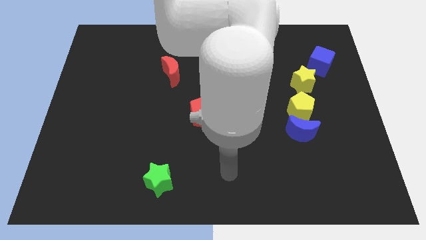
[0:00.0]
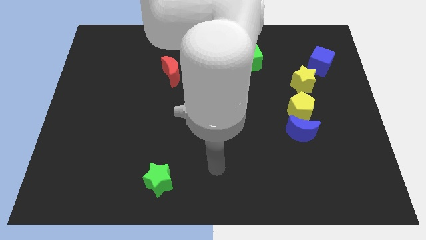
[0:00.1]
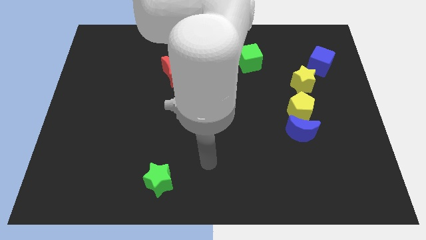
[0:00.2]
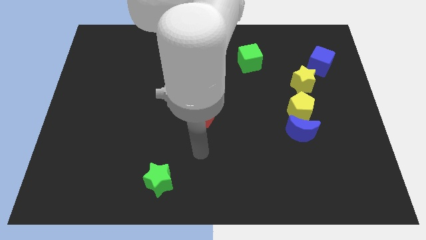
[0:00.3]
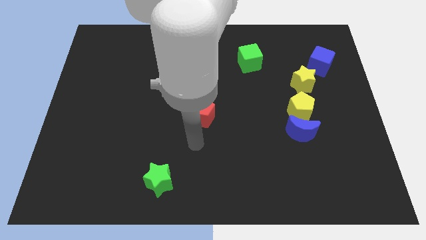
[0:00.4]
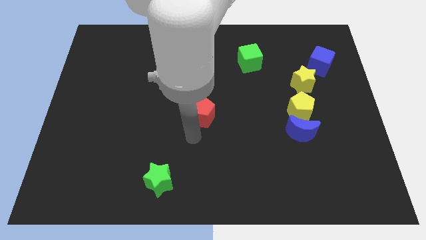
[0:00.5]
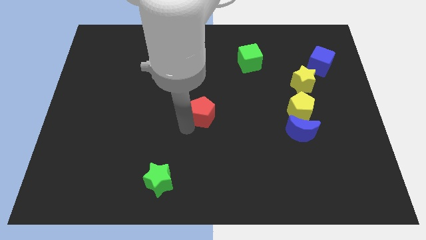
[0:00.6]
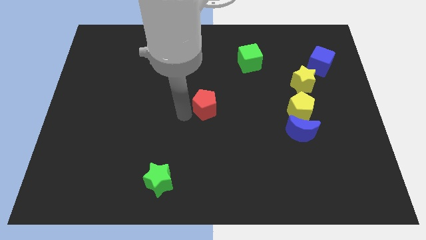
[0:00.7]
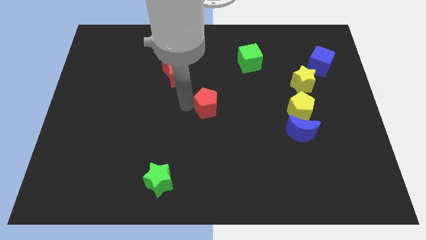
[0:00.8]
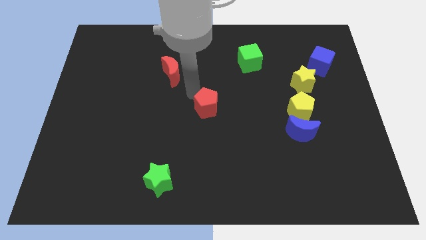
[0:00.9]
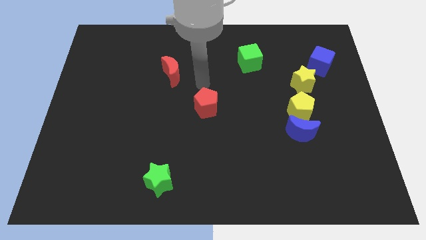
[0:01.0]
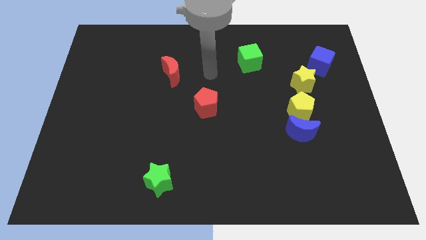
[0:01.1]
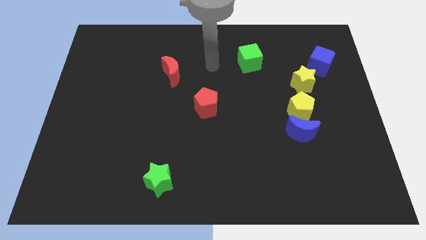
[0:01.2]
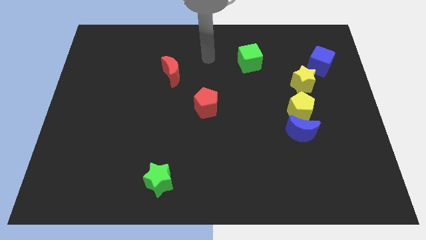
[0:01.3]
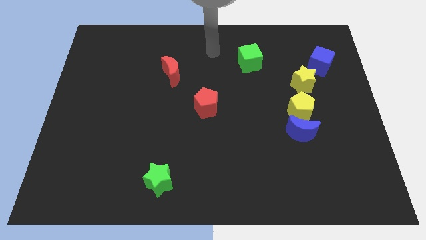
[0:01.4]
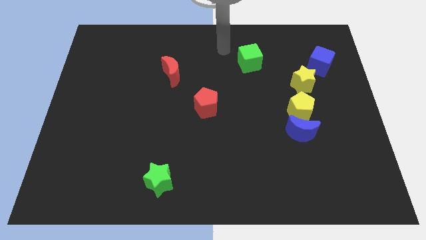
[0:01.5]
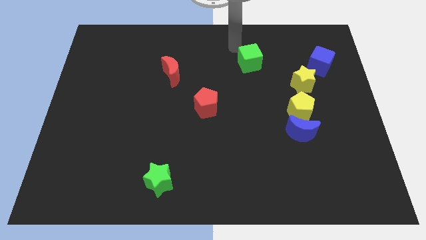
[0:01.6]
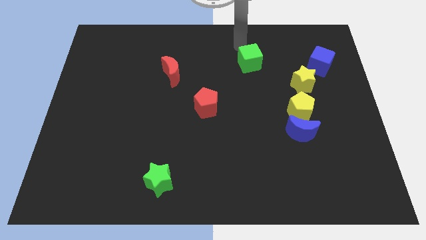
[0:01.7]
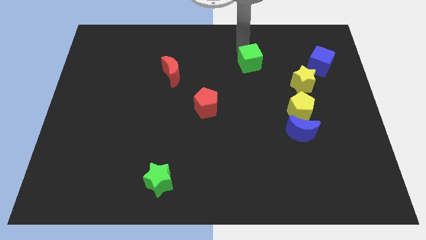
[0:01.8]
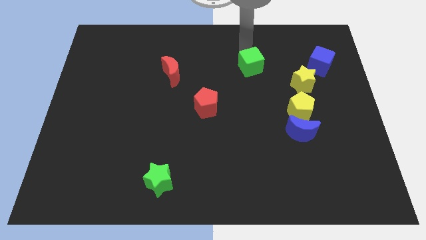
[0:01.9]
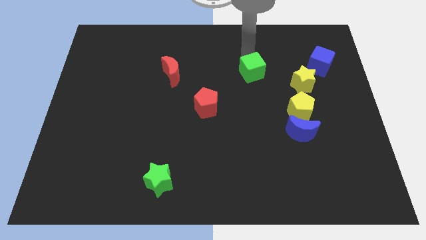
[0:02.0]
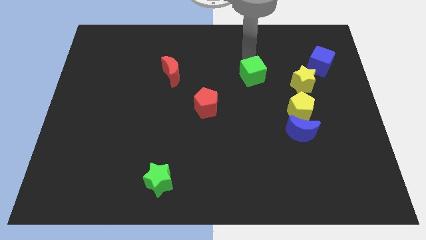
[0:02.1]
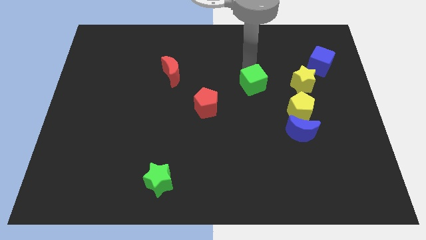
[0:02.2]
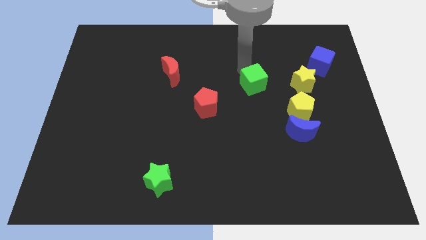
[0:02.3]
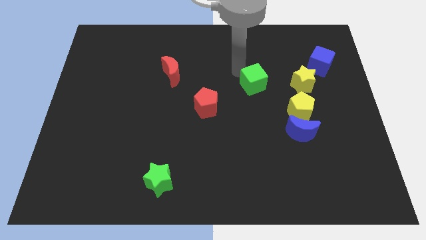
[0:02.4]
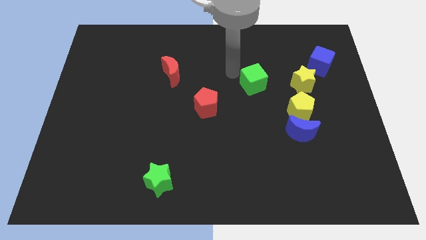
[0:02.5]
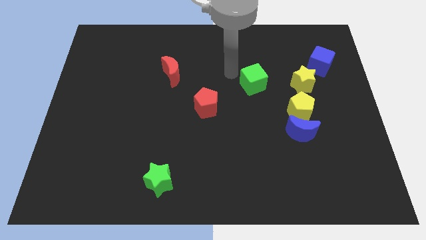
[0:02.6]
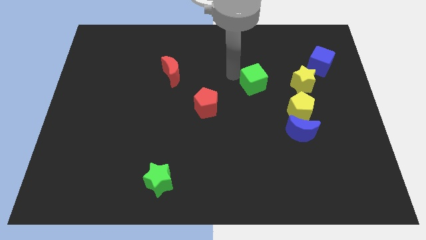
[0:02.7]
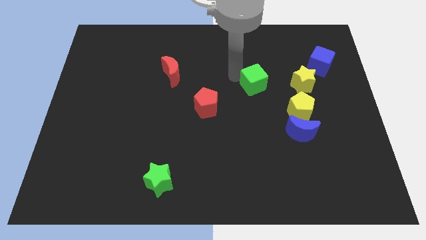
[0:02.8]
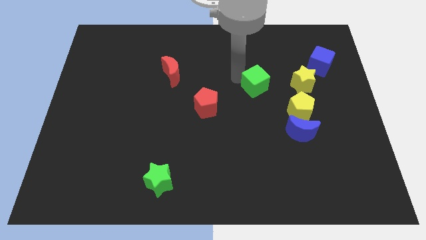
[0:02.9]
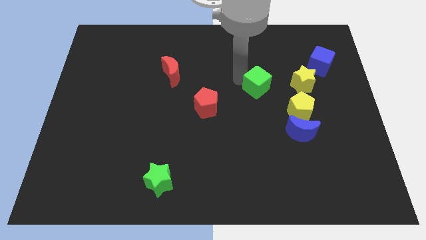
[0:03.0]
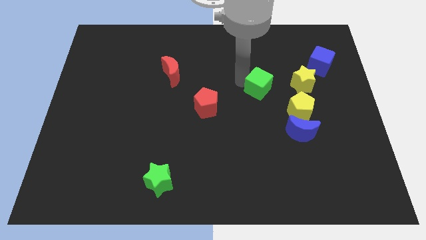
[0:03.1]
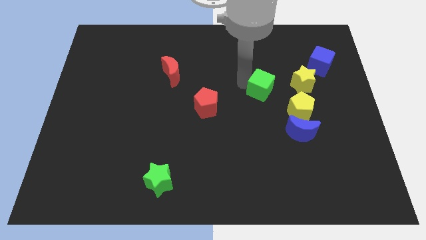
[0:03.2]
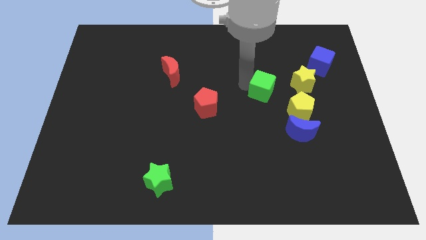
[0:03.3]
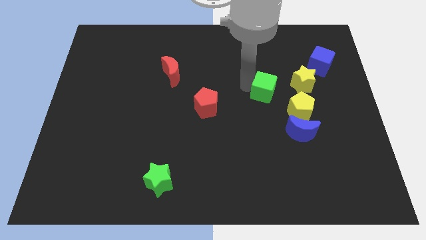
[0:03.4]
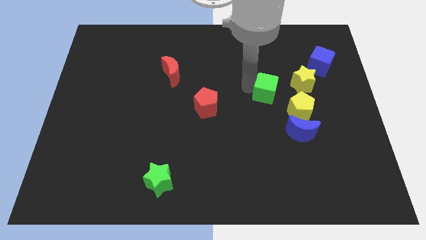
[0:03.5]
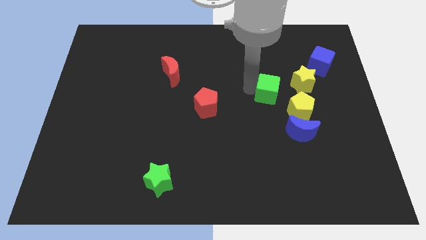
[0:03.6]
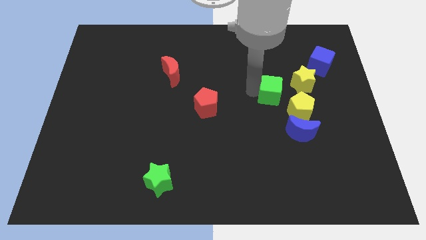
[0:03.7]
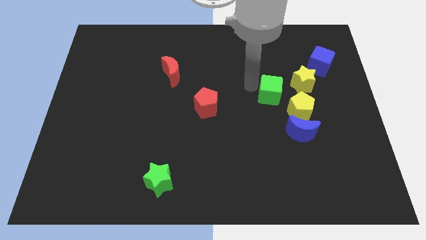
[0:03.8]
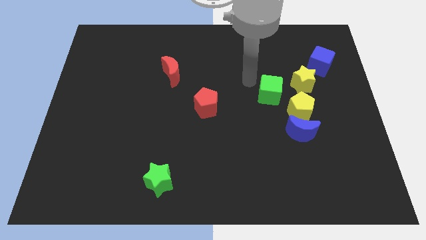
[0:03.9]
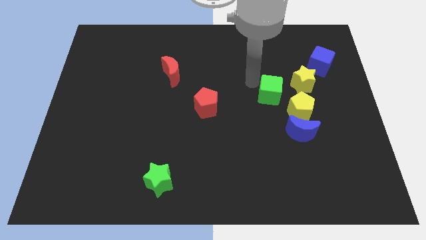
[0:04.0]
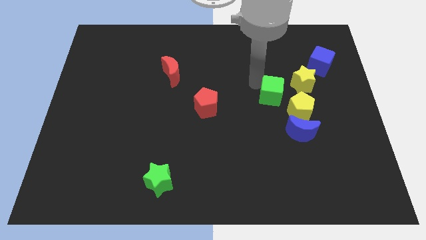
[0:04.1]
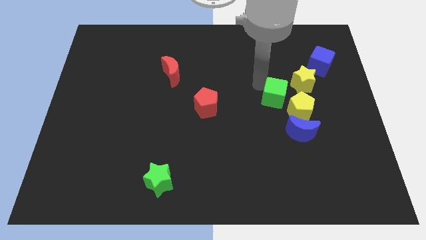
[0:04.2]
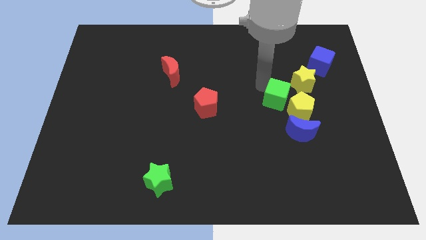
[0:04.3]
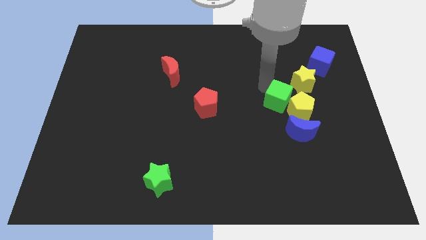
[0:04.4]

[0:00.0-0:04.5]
slide the green cube close to the yellow pentagon

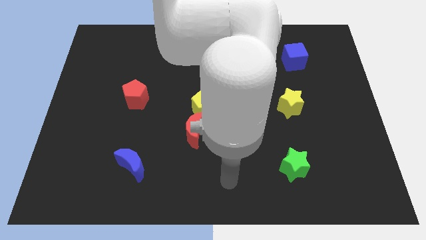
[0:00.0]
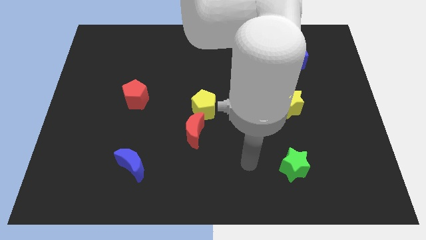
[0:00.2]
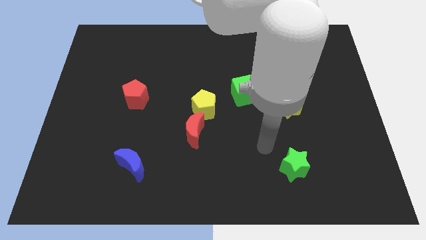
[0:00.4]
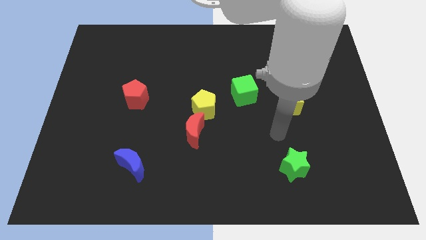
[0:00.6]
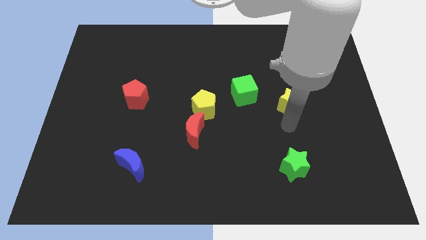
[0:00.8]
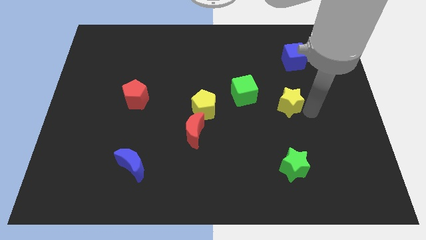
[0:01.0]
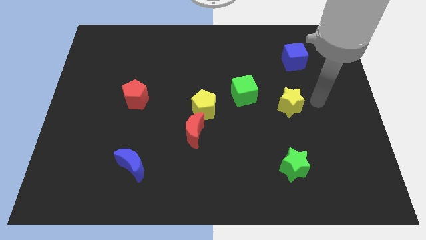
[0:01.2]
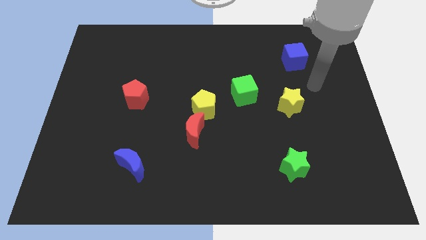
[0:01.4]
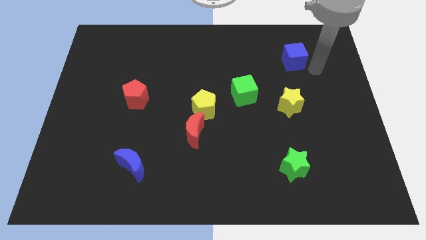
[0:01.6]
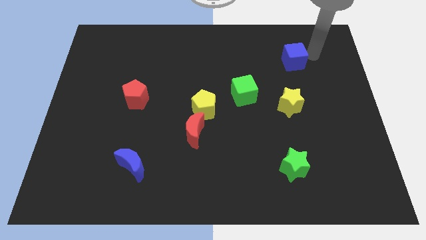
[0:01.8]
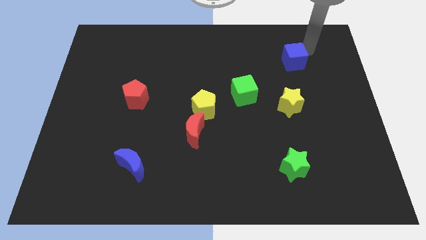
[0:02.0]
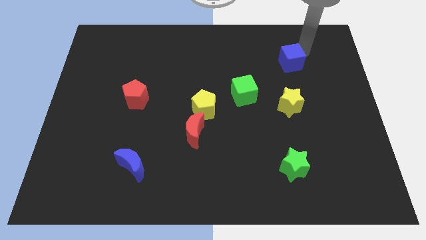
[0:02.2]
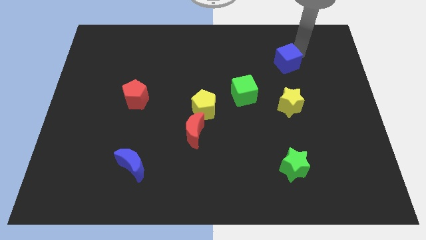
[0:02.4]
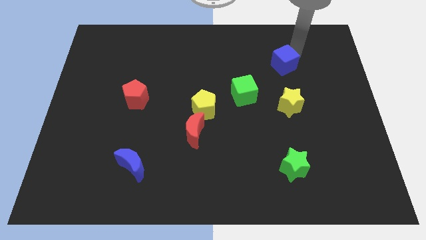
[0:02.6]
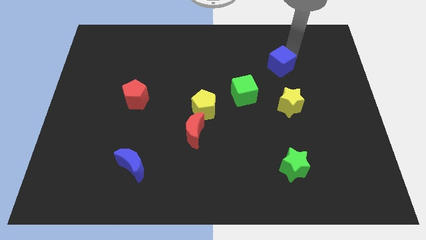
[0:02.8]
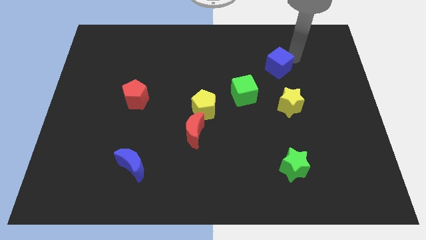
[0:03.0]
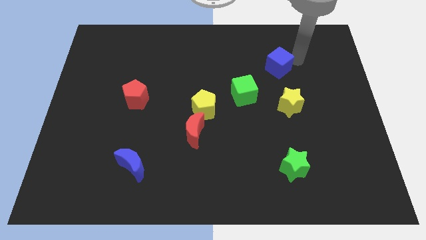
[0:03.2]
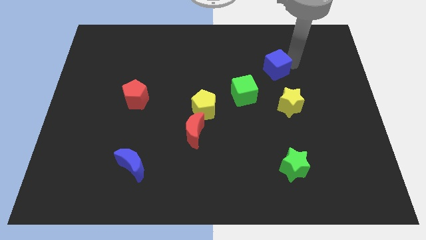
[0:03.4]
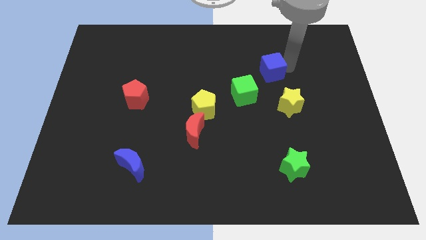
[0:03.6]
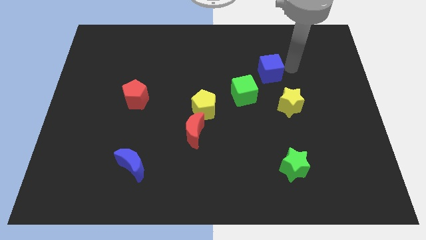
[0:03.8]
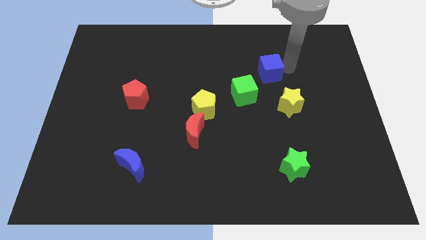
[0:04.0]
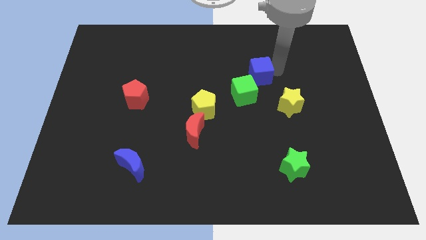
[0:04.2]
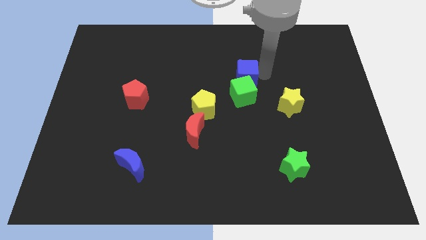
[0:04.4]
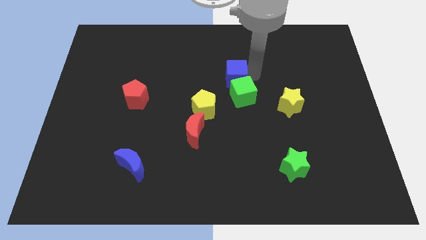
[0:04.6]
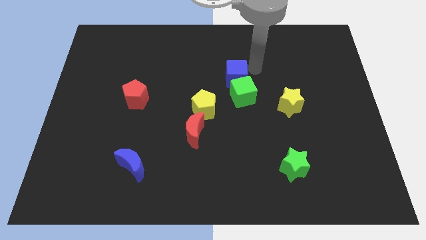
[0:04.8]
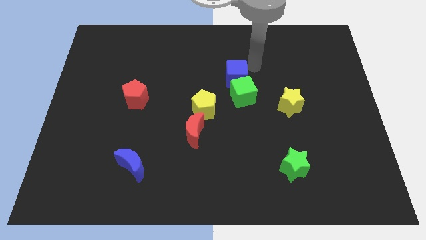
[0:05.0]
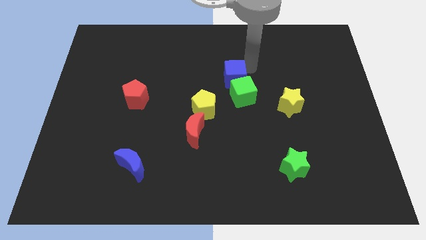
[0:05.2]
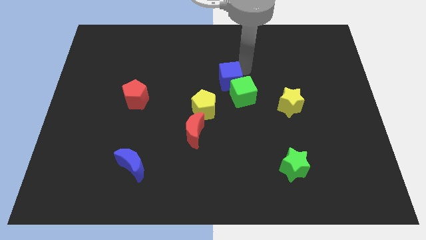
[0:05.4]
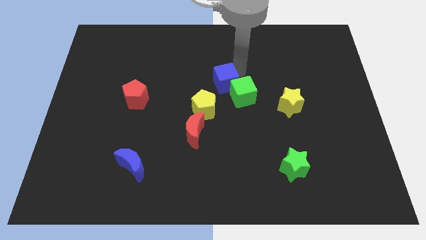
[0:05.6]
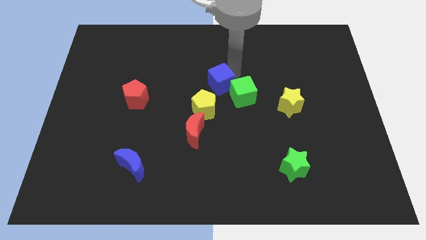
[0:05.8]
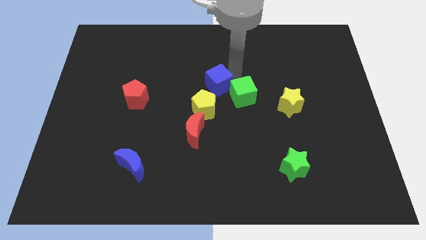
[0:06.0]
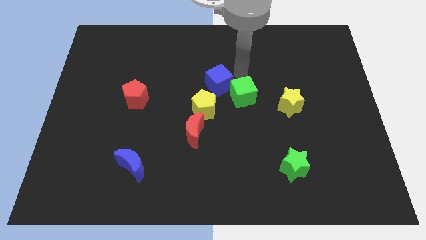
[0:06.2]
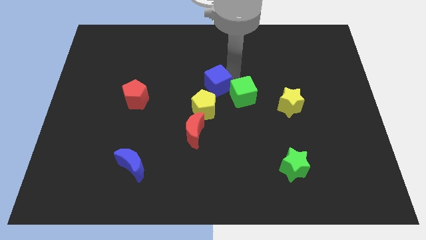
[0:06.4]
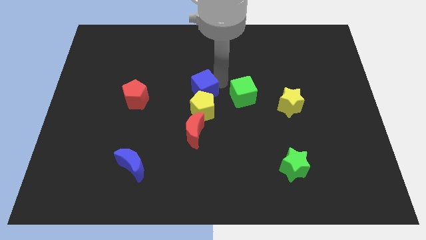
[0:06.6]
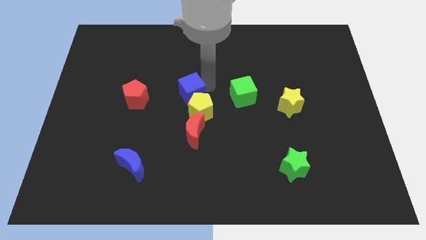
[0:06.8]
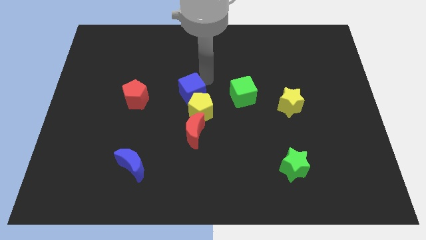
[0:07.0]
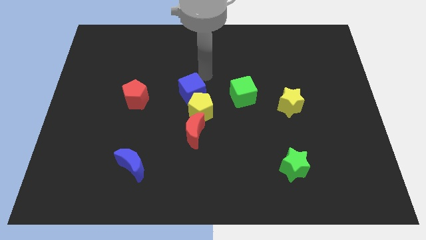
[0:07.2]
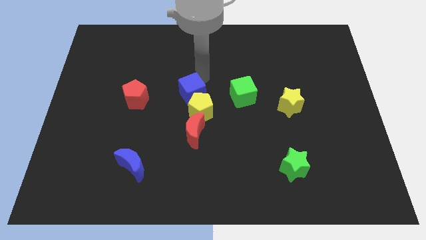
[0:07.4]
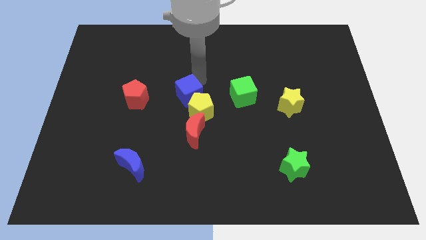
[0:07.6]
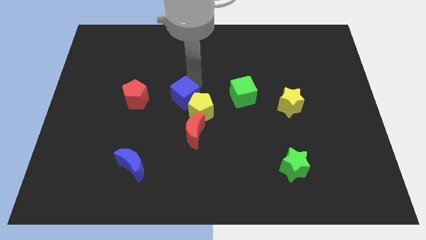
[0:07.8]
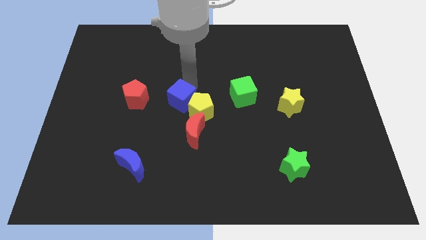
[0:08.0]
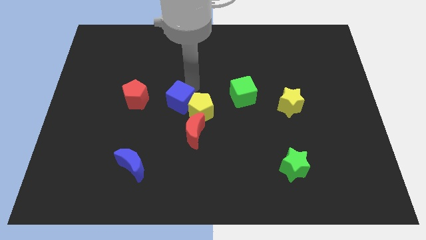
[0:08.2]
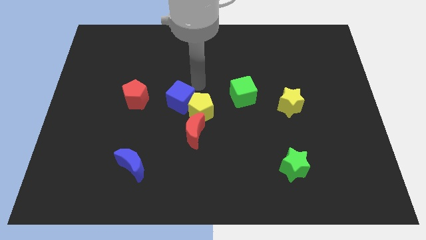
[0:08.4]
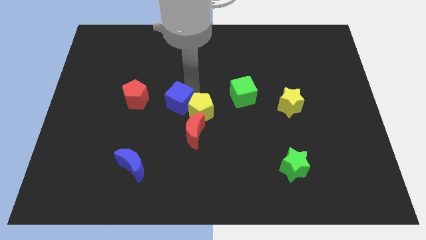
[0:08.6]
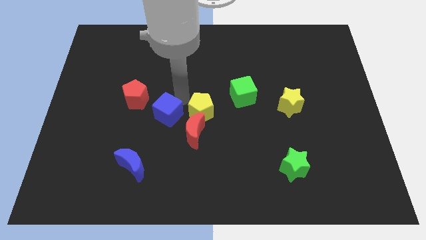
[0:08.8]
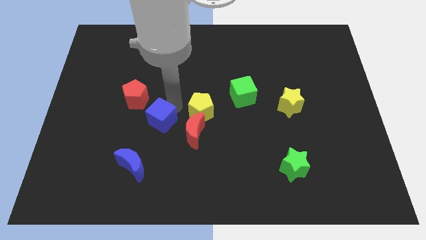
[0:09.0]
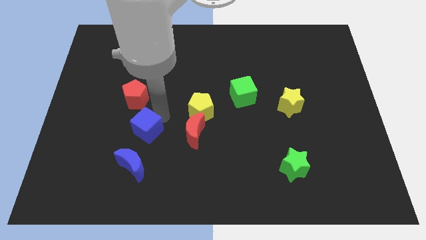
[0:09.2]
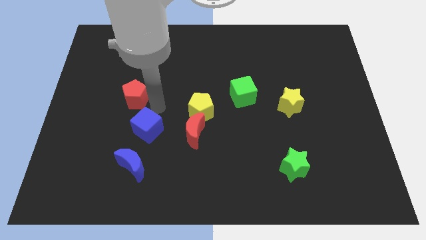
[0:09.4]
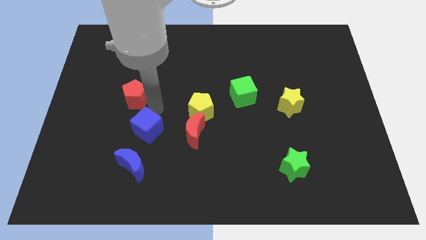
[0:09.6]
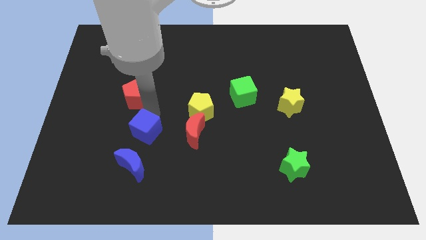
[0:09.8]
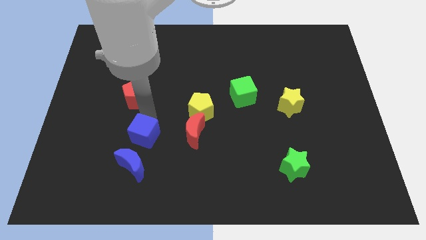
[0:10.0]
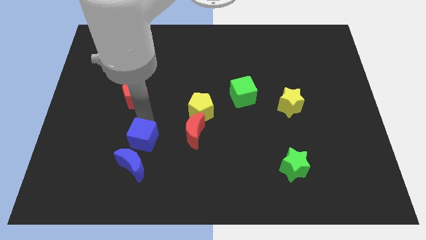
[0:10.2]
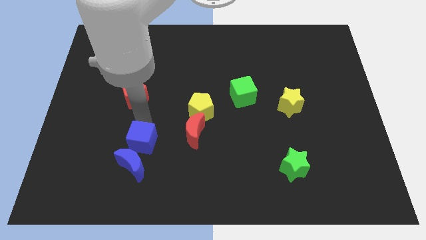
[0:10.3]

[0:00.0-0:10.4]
put the blue cube close to the blue moon
